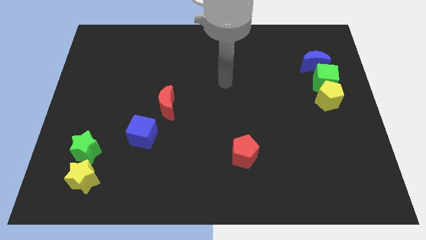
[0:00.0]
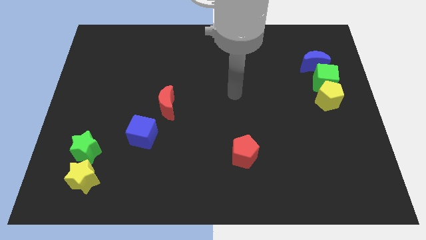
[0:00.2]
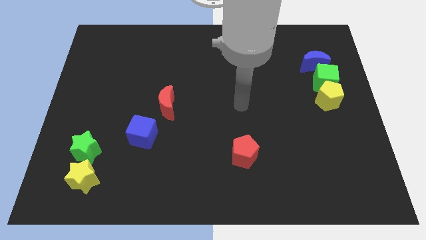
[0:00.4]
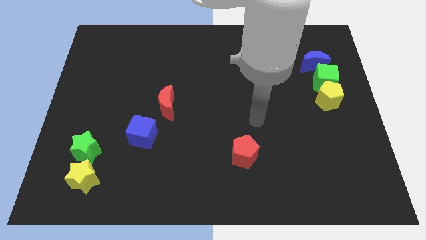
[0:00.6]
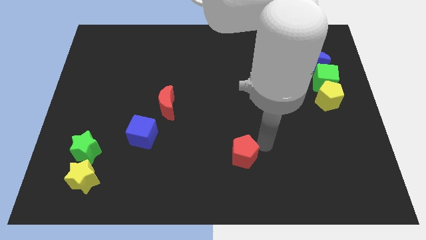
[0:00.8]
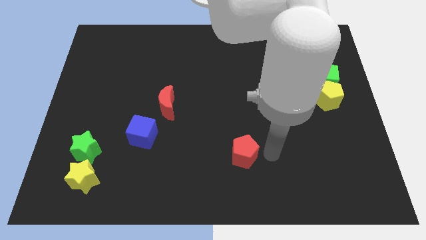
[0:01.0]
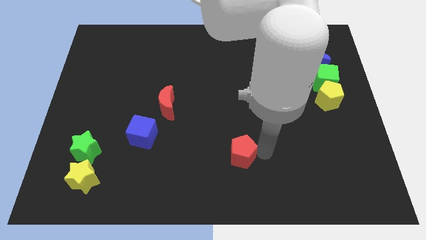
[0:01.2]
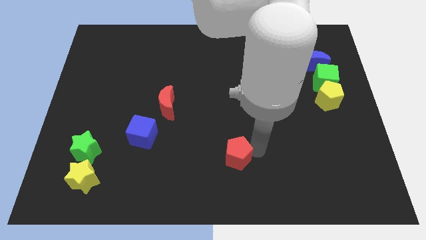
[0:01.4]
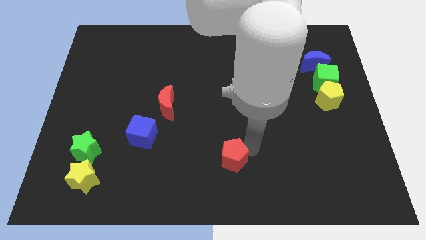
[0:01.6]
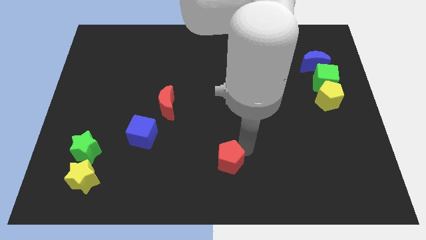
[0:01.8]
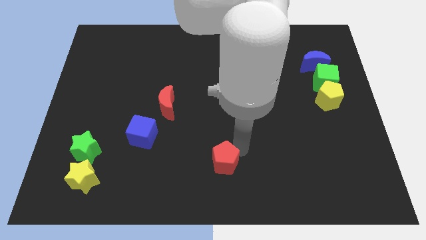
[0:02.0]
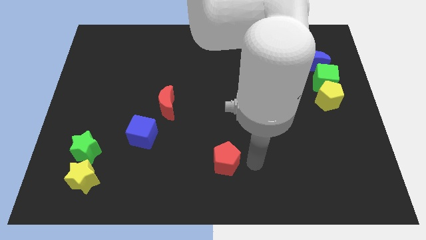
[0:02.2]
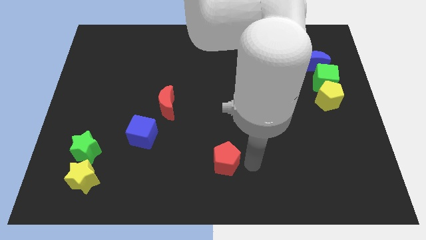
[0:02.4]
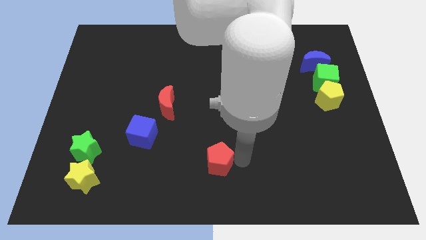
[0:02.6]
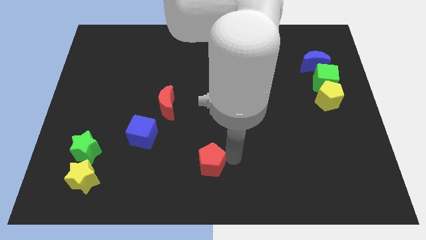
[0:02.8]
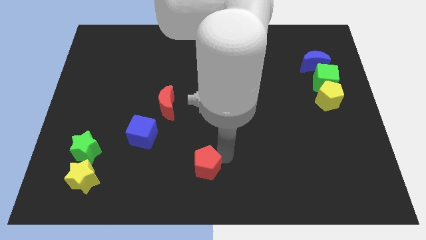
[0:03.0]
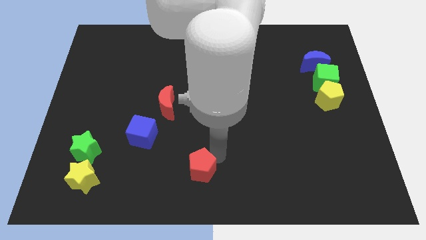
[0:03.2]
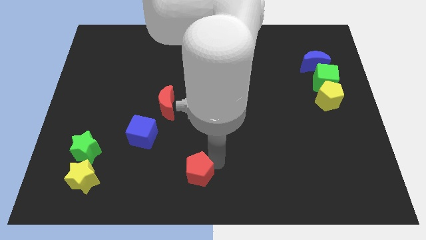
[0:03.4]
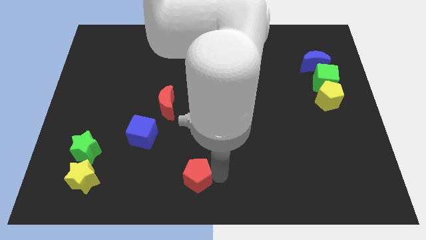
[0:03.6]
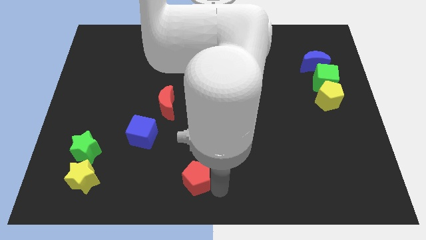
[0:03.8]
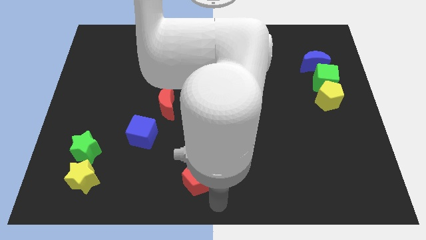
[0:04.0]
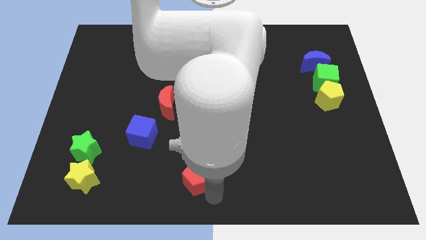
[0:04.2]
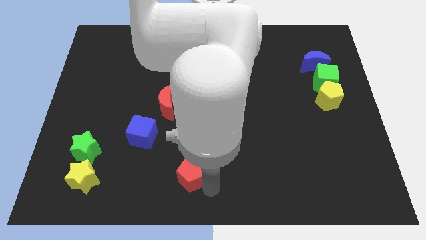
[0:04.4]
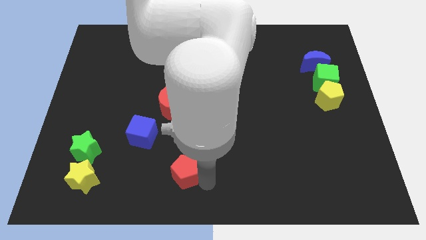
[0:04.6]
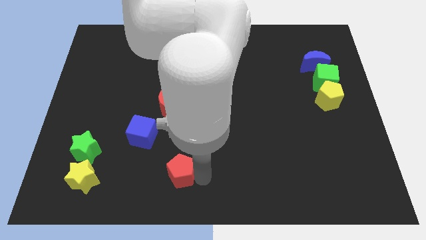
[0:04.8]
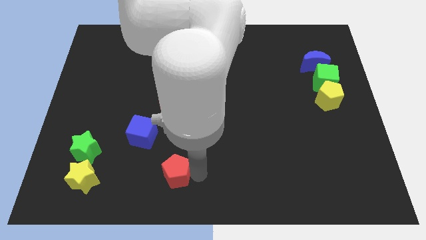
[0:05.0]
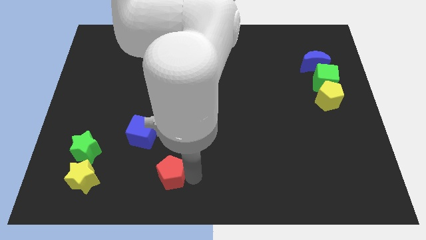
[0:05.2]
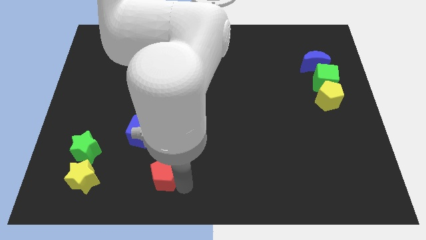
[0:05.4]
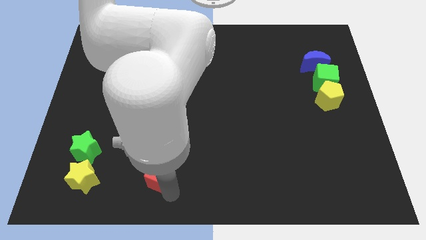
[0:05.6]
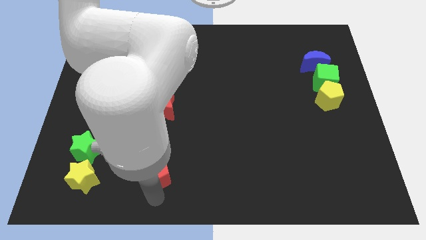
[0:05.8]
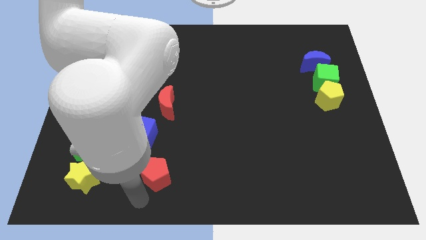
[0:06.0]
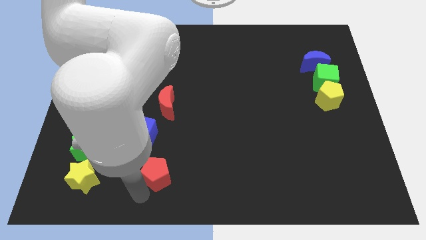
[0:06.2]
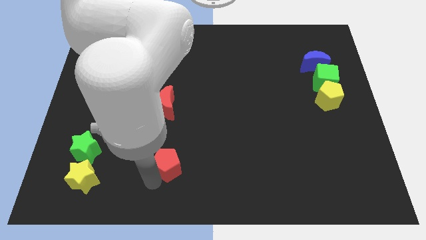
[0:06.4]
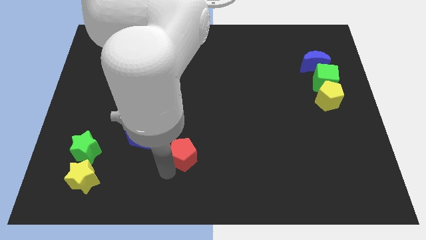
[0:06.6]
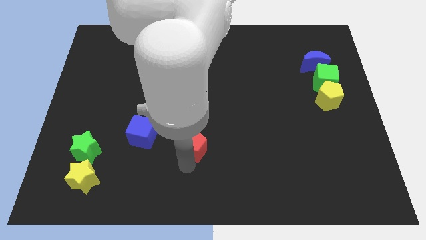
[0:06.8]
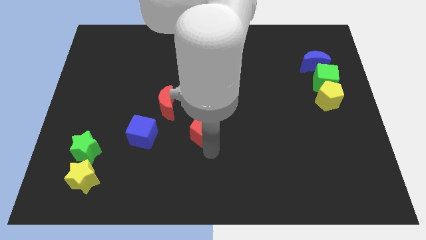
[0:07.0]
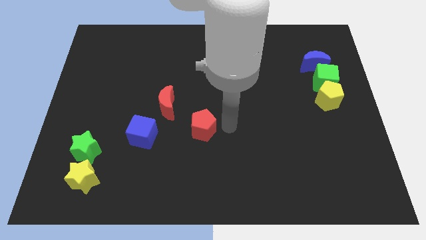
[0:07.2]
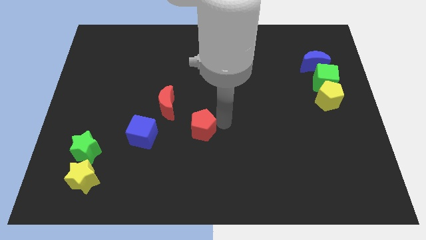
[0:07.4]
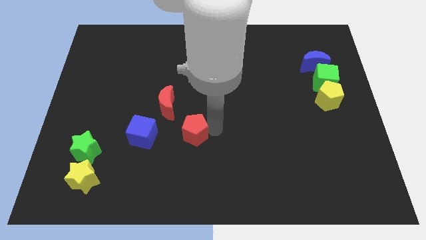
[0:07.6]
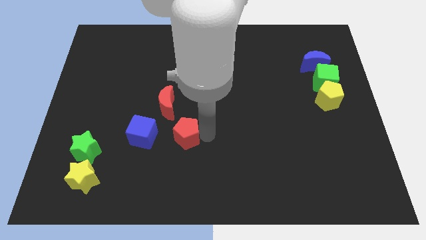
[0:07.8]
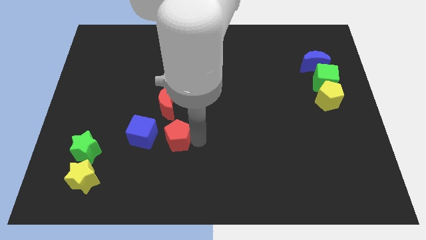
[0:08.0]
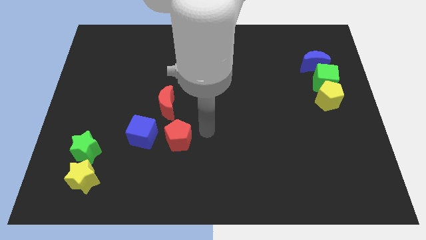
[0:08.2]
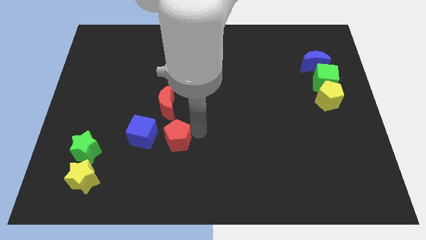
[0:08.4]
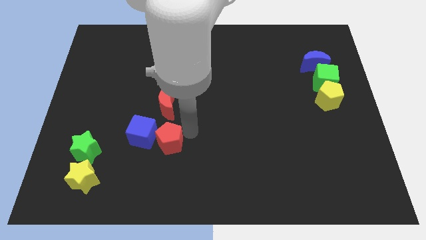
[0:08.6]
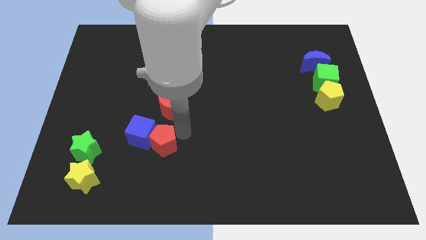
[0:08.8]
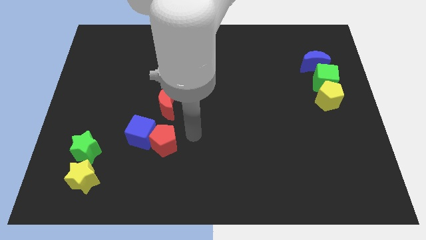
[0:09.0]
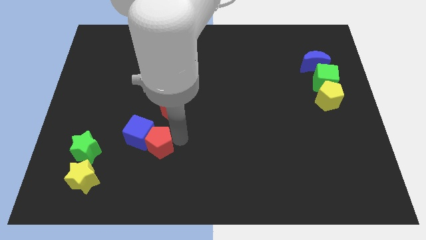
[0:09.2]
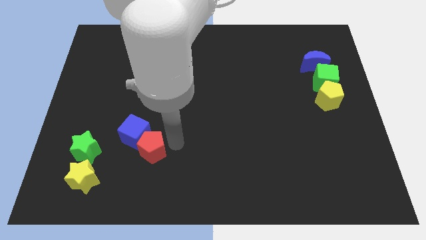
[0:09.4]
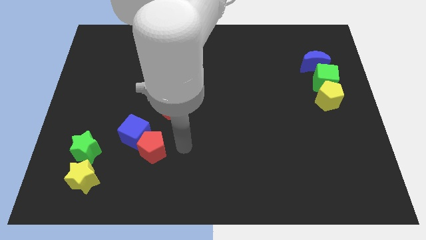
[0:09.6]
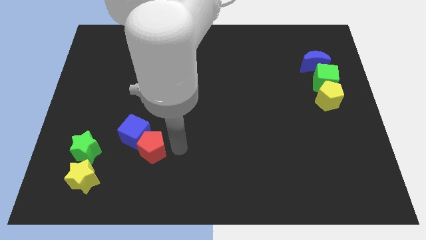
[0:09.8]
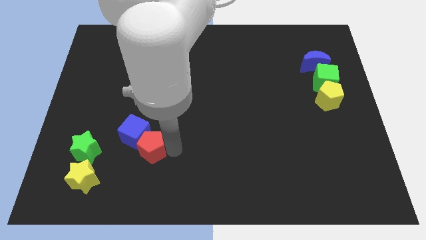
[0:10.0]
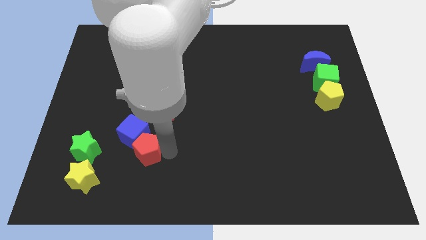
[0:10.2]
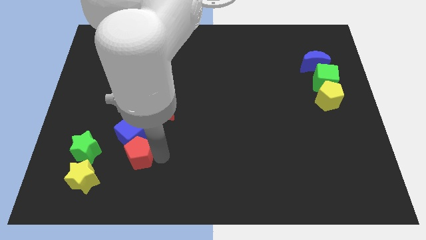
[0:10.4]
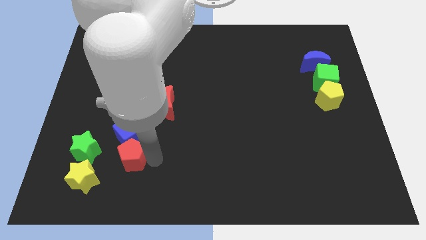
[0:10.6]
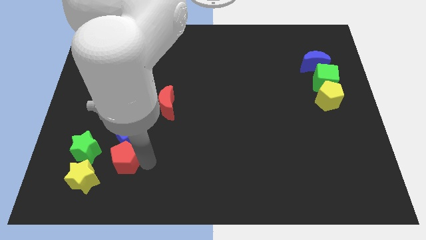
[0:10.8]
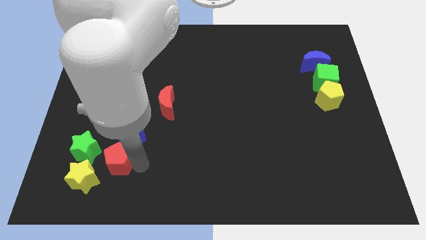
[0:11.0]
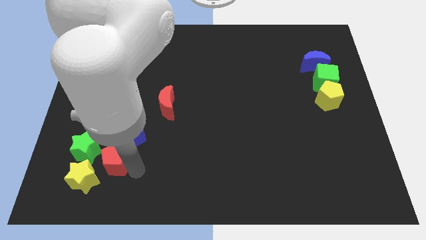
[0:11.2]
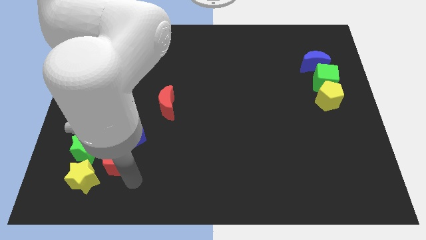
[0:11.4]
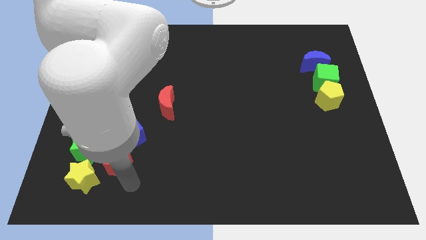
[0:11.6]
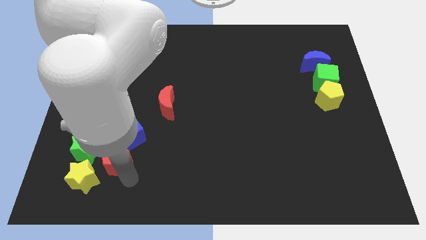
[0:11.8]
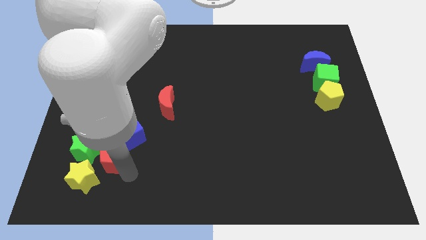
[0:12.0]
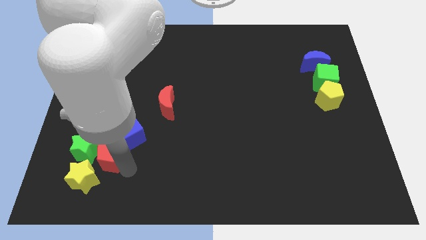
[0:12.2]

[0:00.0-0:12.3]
move the red pentagon close to the green star
